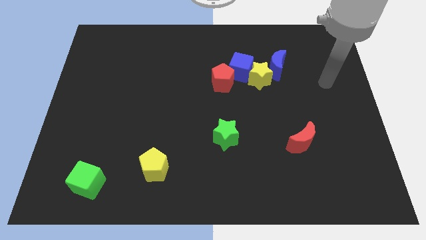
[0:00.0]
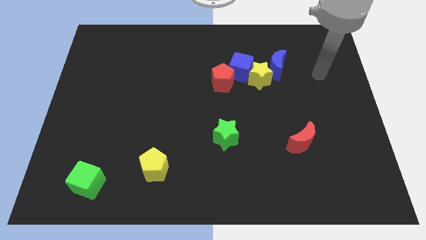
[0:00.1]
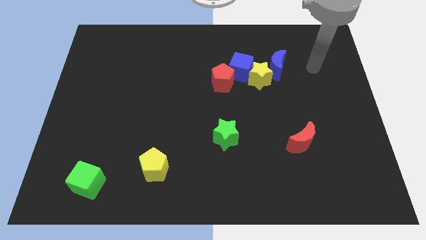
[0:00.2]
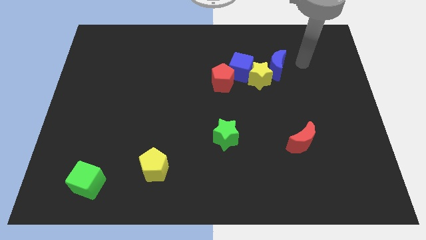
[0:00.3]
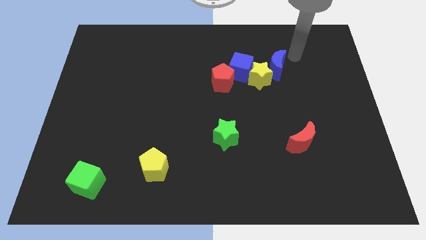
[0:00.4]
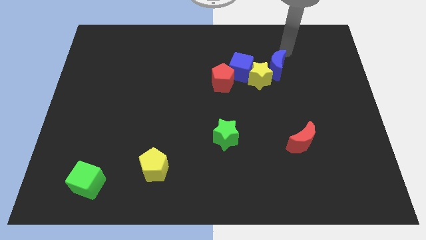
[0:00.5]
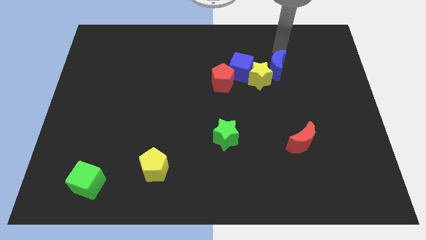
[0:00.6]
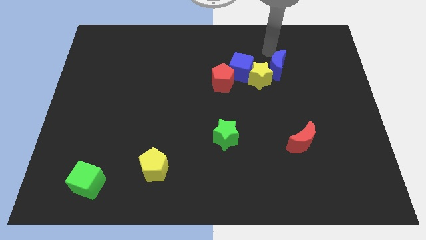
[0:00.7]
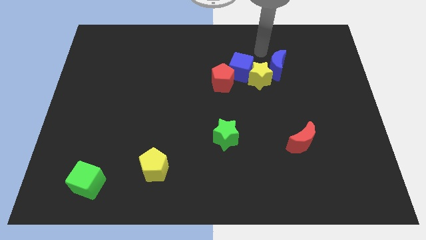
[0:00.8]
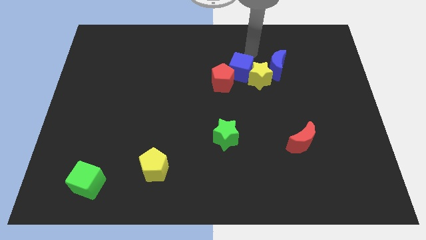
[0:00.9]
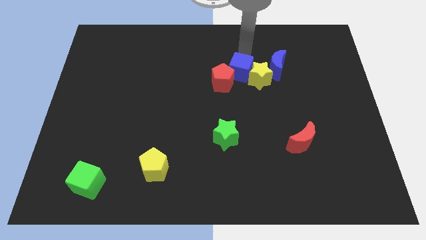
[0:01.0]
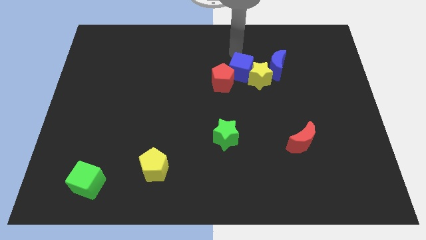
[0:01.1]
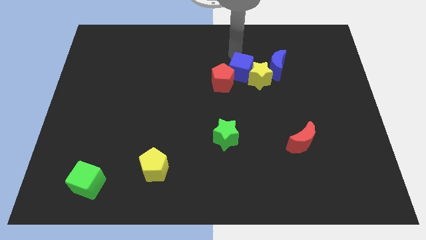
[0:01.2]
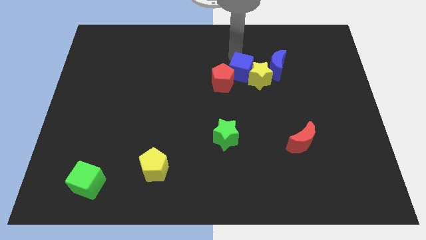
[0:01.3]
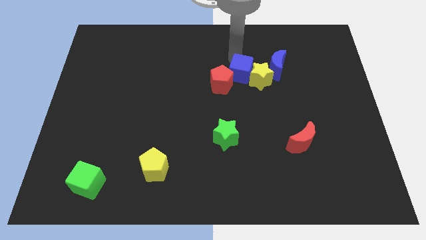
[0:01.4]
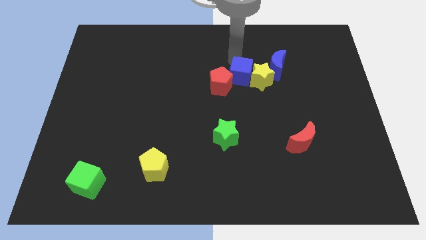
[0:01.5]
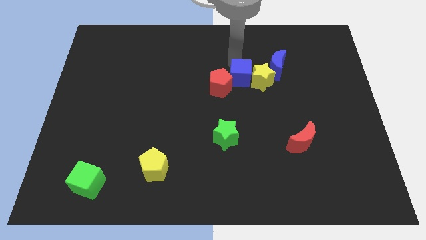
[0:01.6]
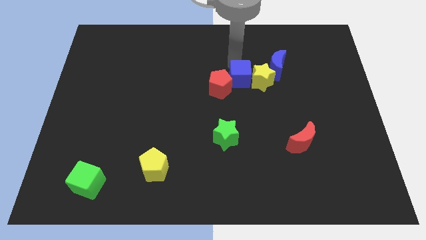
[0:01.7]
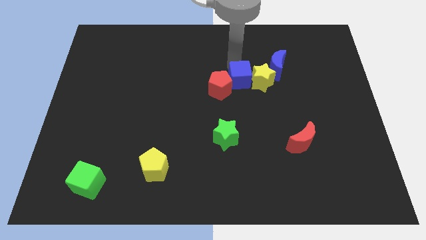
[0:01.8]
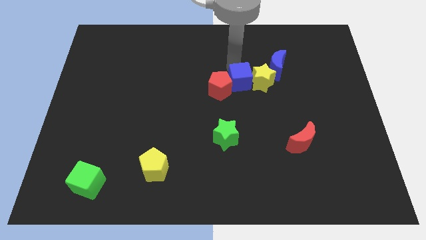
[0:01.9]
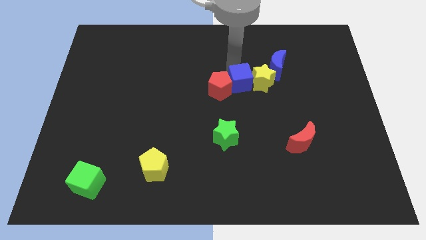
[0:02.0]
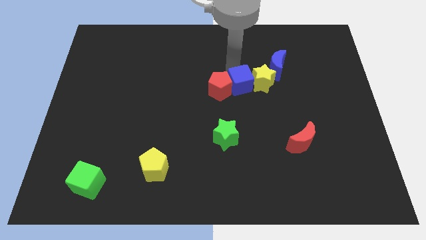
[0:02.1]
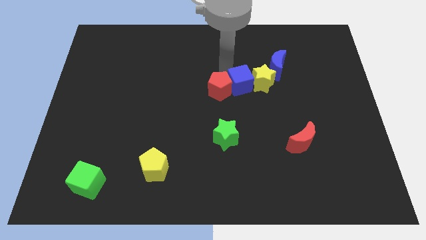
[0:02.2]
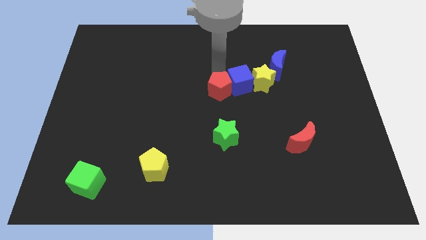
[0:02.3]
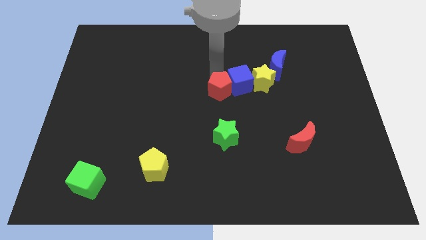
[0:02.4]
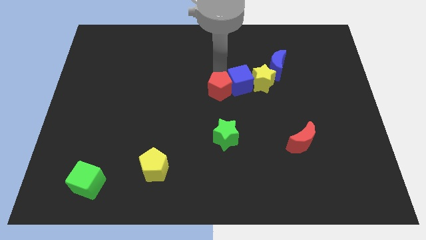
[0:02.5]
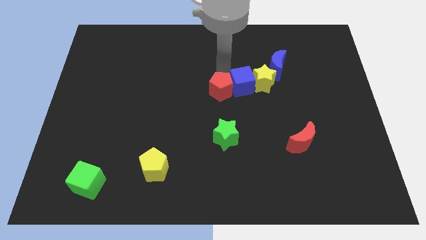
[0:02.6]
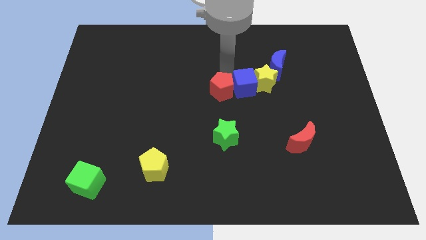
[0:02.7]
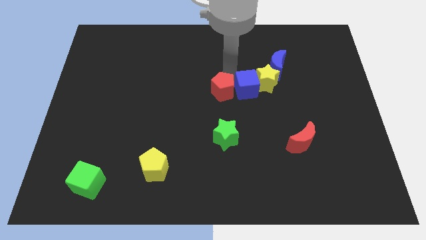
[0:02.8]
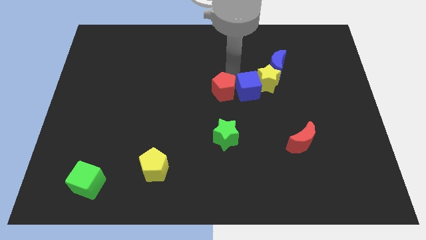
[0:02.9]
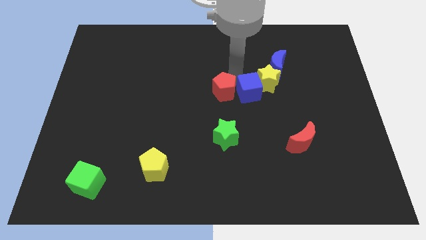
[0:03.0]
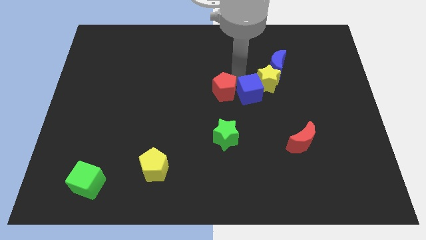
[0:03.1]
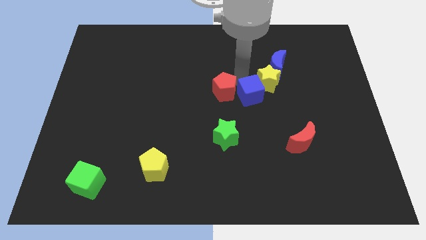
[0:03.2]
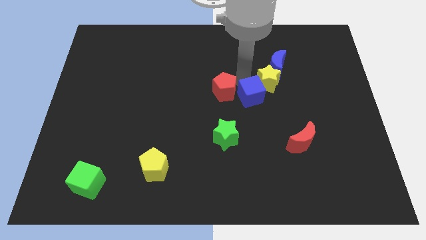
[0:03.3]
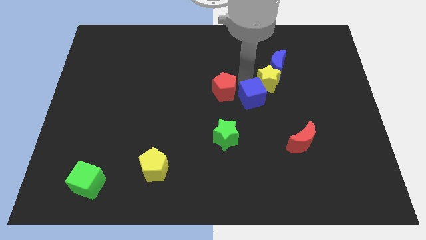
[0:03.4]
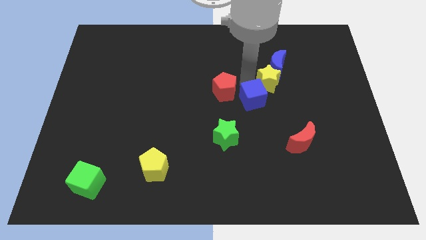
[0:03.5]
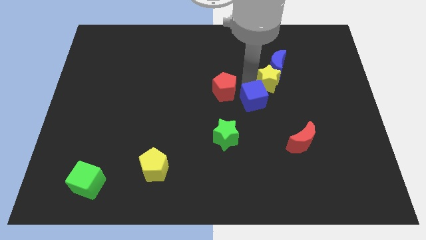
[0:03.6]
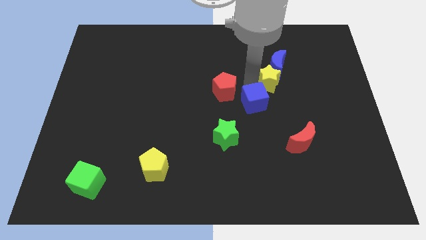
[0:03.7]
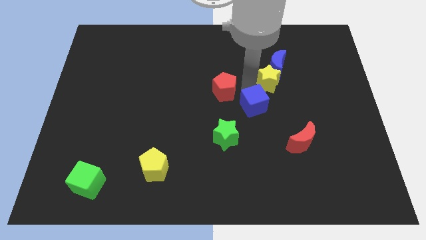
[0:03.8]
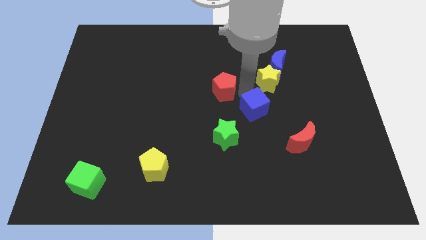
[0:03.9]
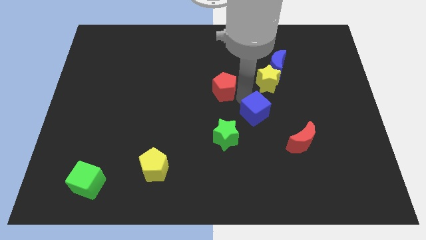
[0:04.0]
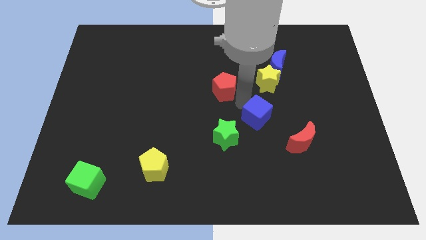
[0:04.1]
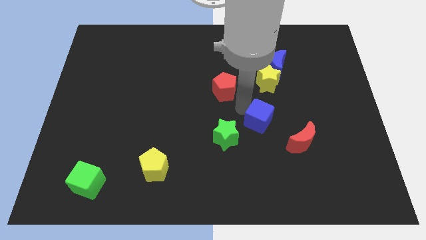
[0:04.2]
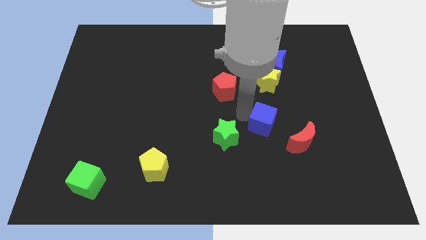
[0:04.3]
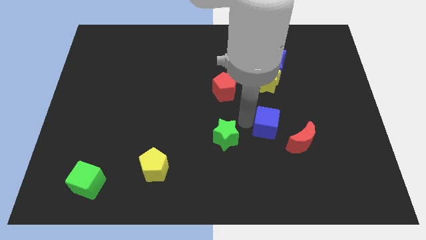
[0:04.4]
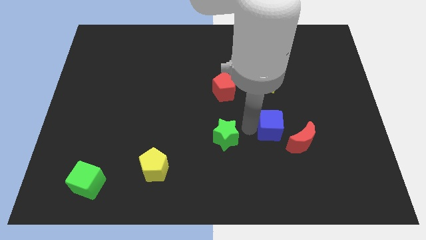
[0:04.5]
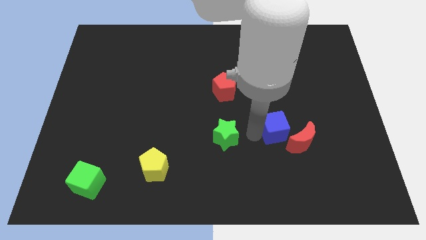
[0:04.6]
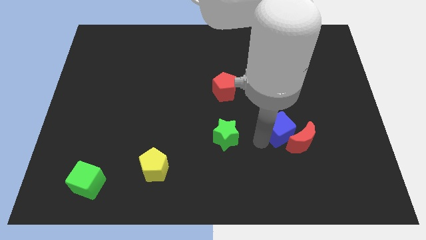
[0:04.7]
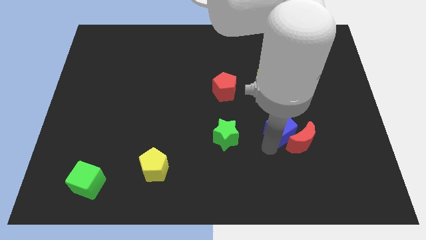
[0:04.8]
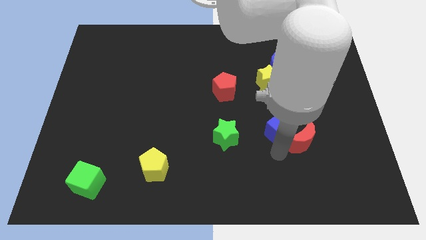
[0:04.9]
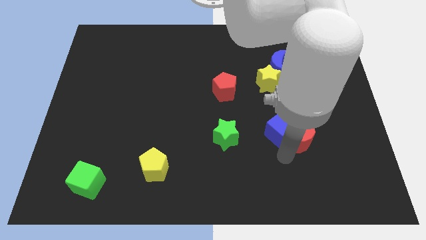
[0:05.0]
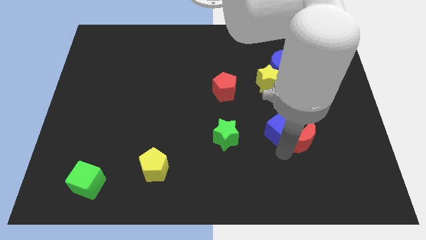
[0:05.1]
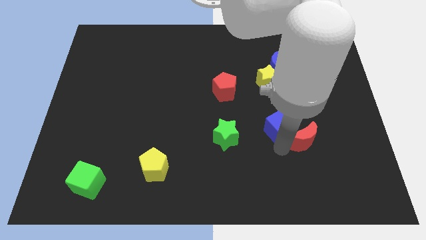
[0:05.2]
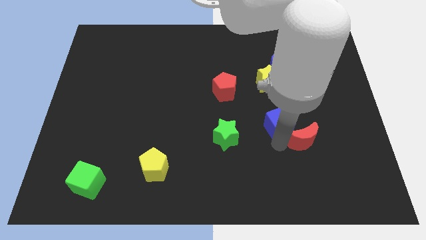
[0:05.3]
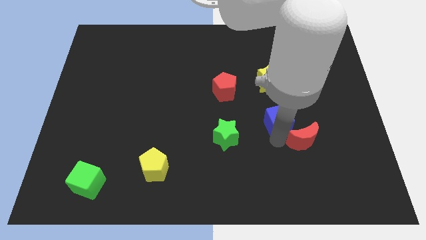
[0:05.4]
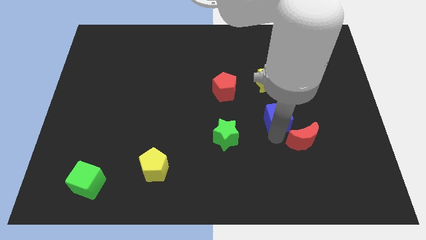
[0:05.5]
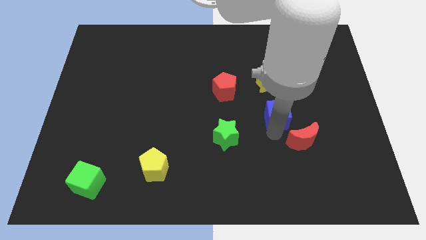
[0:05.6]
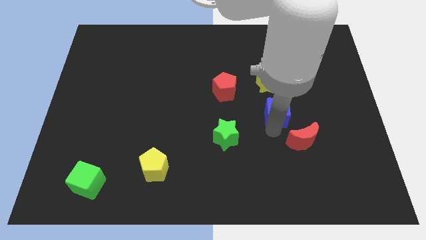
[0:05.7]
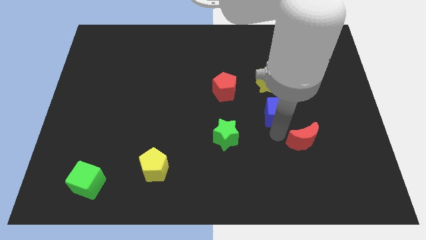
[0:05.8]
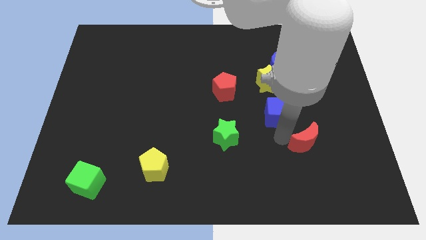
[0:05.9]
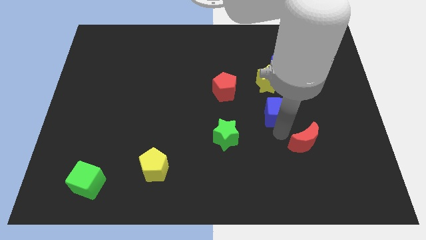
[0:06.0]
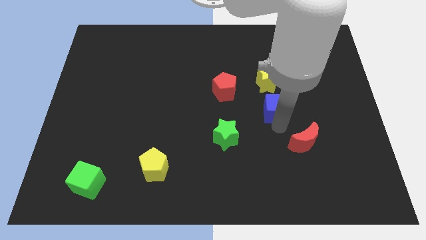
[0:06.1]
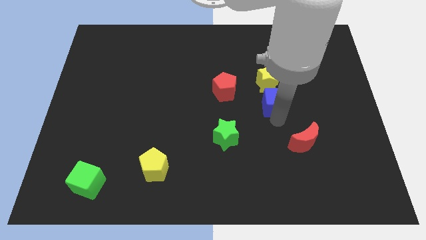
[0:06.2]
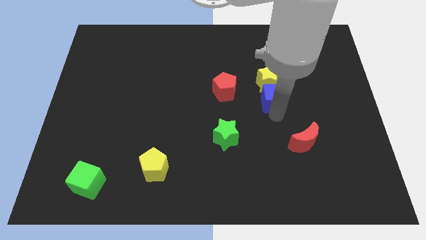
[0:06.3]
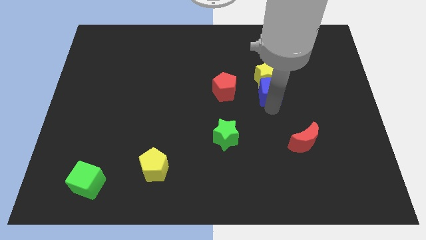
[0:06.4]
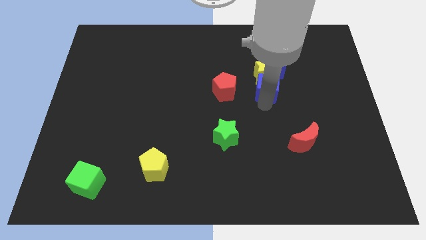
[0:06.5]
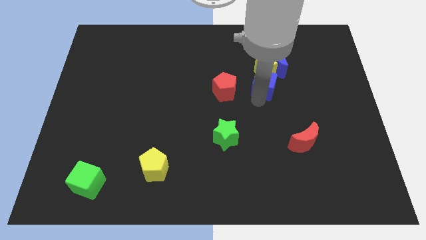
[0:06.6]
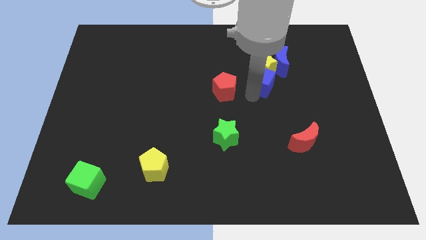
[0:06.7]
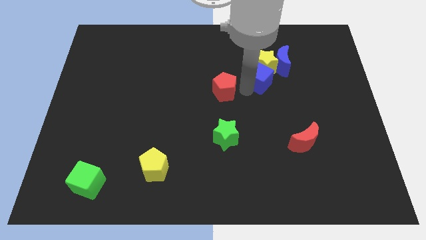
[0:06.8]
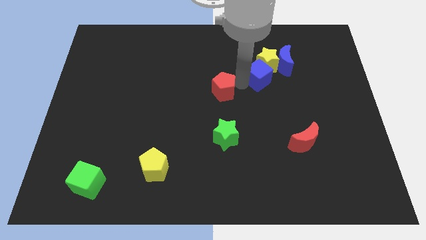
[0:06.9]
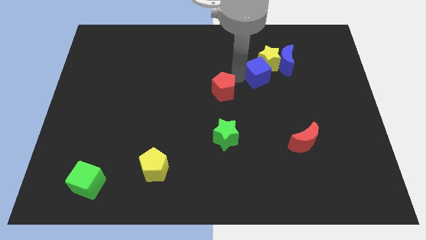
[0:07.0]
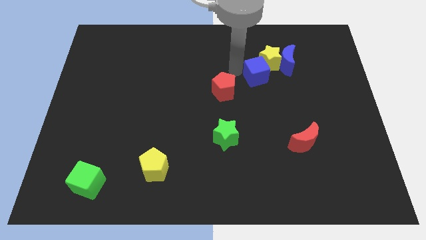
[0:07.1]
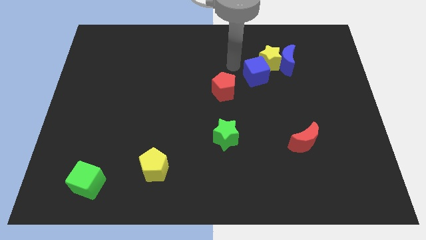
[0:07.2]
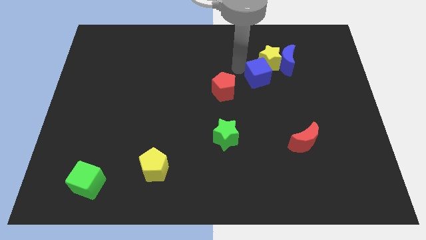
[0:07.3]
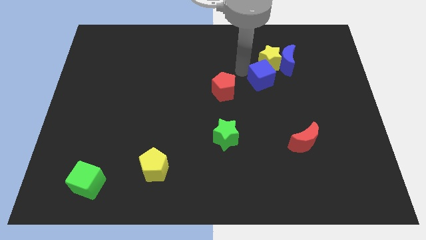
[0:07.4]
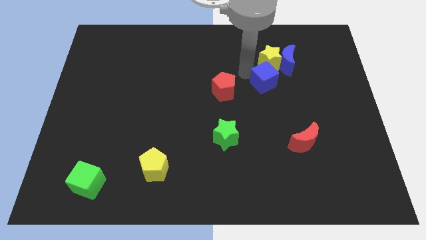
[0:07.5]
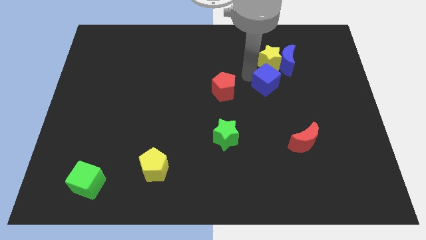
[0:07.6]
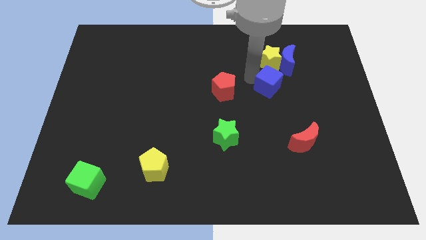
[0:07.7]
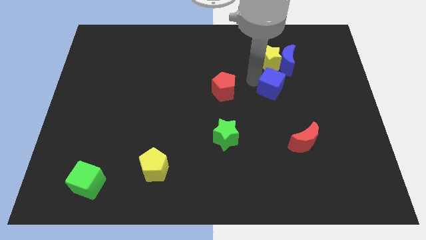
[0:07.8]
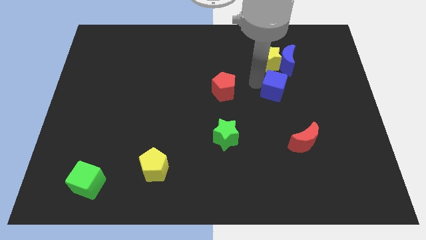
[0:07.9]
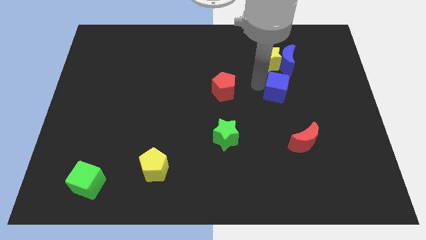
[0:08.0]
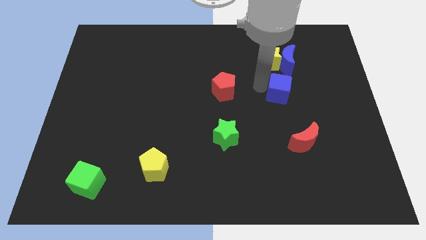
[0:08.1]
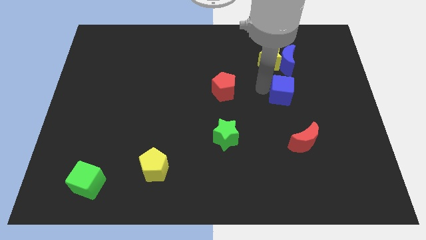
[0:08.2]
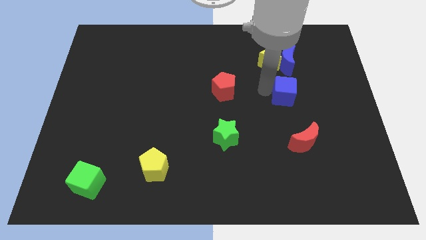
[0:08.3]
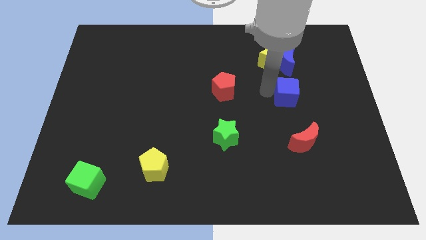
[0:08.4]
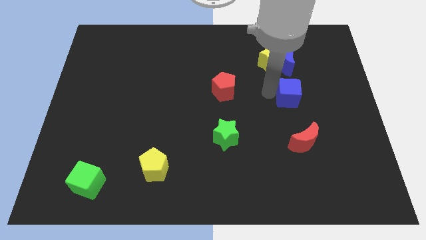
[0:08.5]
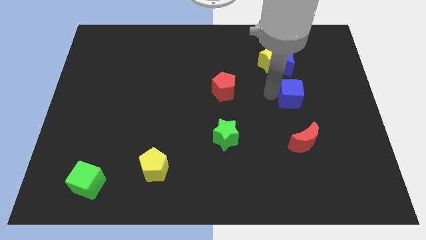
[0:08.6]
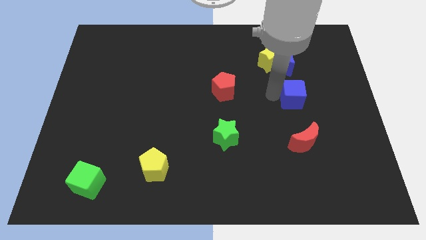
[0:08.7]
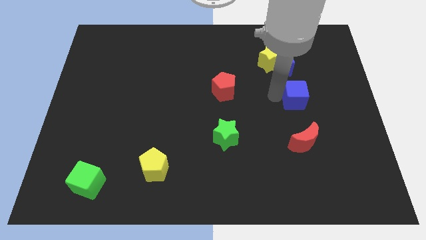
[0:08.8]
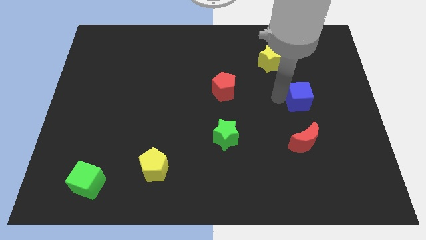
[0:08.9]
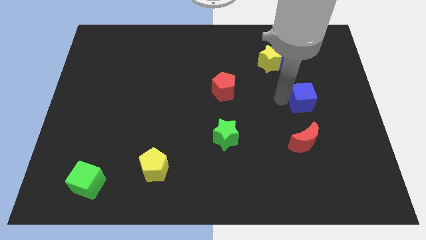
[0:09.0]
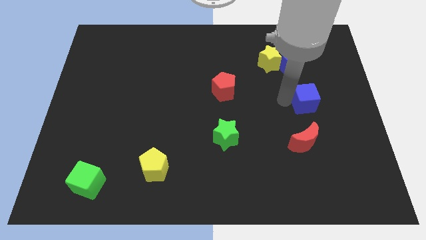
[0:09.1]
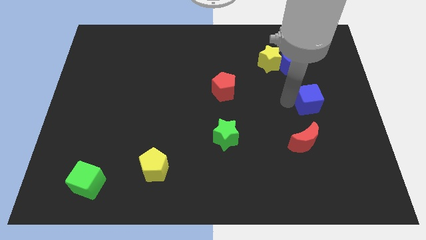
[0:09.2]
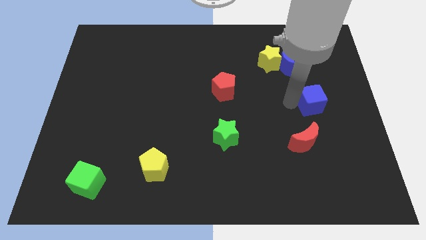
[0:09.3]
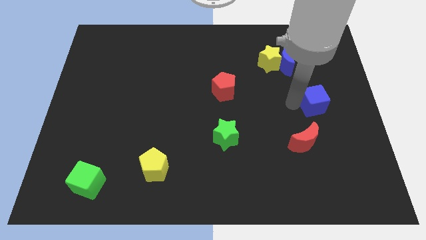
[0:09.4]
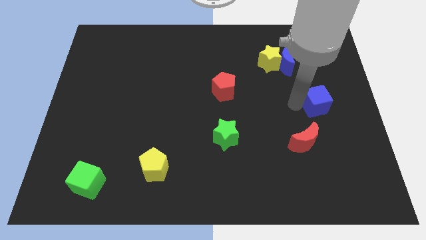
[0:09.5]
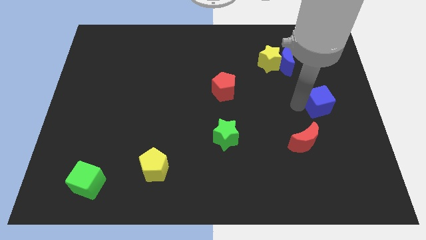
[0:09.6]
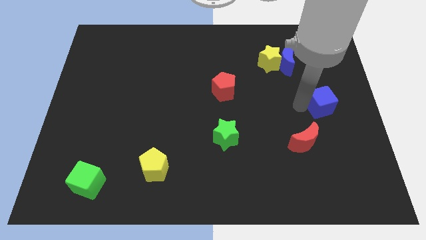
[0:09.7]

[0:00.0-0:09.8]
move the blue cube to the center right
